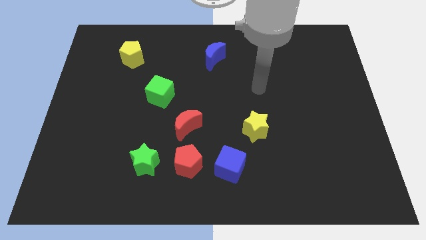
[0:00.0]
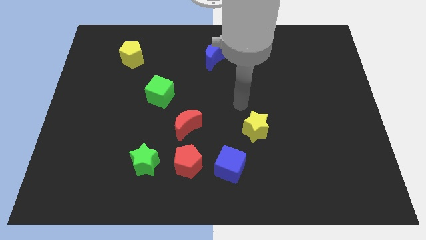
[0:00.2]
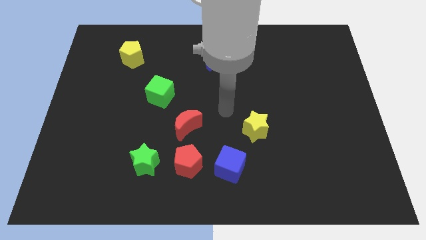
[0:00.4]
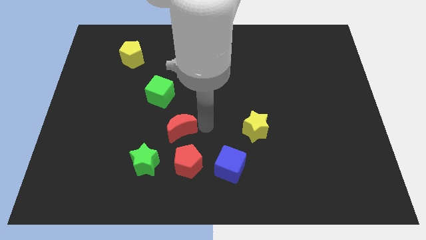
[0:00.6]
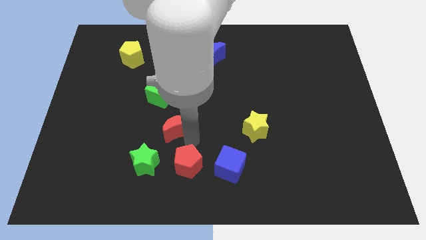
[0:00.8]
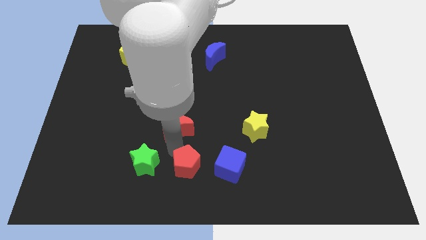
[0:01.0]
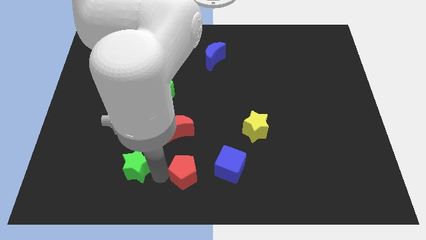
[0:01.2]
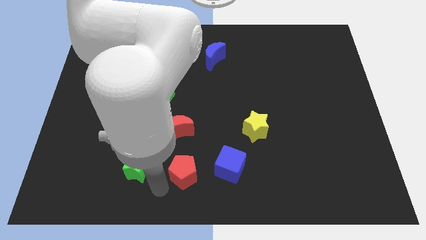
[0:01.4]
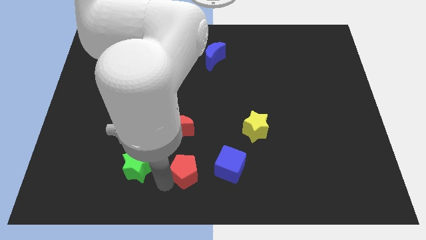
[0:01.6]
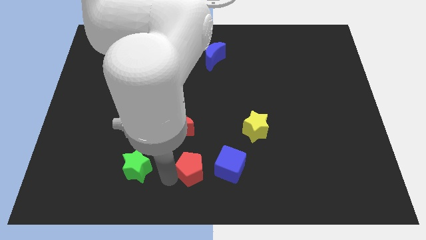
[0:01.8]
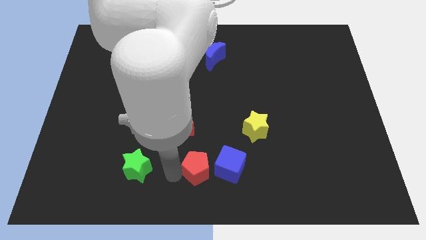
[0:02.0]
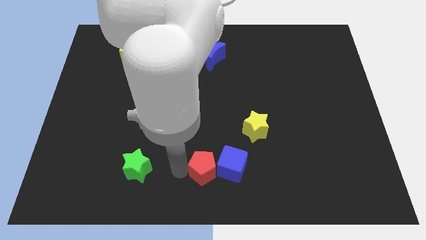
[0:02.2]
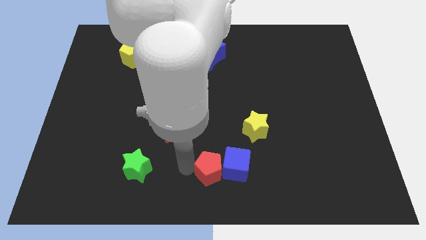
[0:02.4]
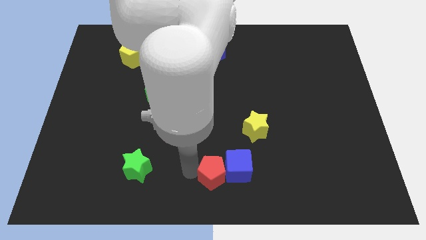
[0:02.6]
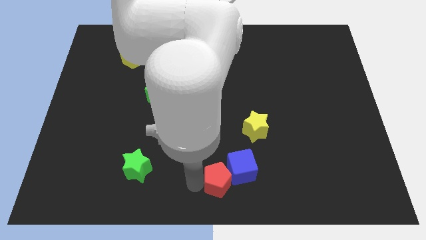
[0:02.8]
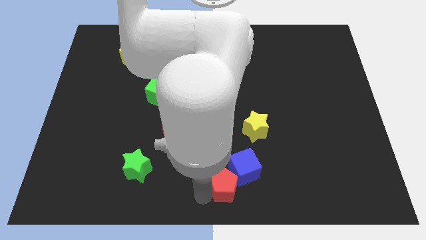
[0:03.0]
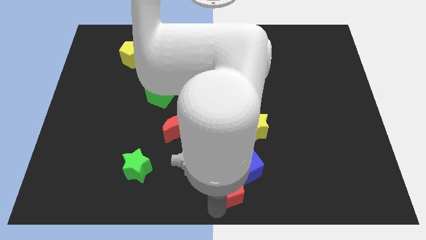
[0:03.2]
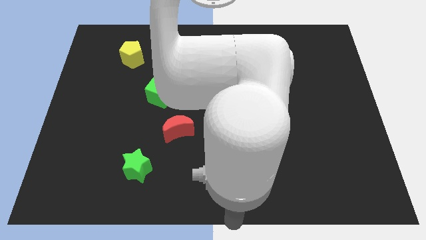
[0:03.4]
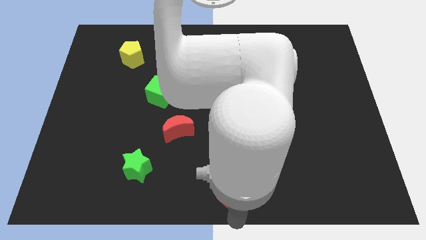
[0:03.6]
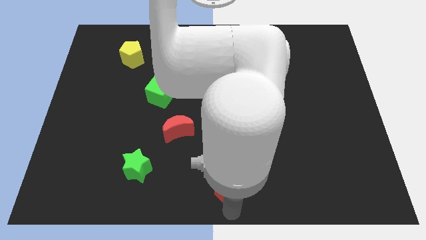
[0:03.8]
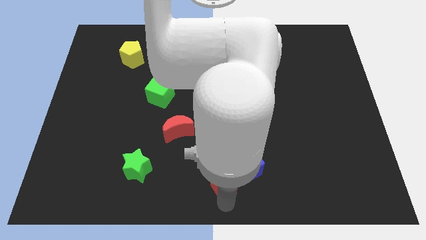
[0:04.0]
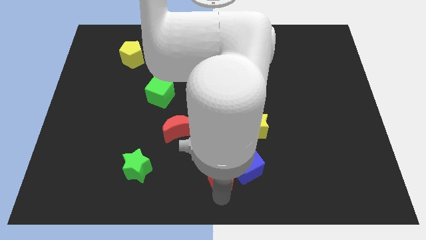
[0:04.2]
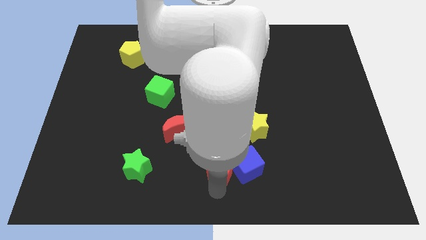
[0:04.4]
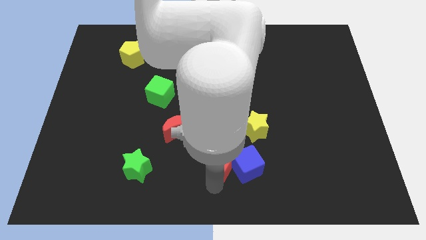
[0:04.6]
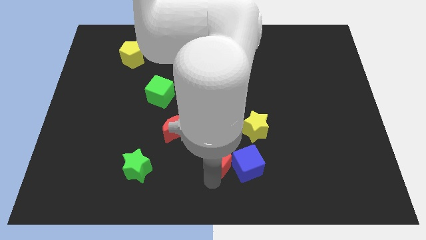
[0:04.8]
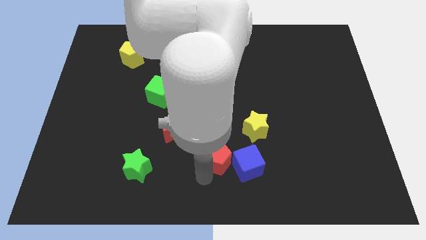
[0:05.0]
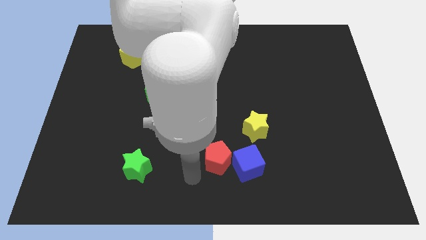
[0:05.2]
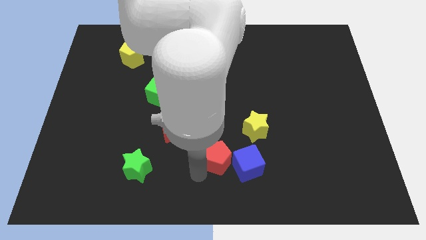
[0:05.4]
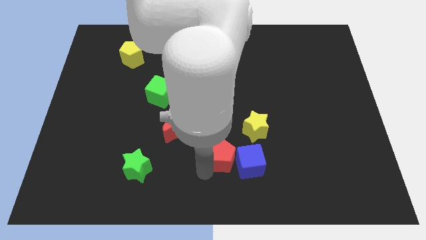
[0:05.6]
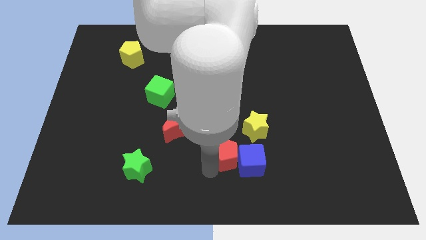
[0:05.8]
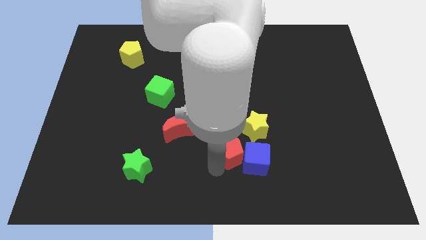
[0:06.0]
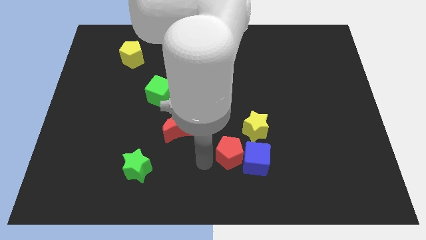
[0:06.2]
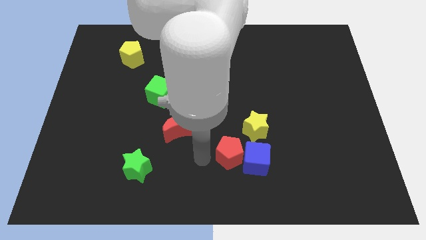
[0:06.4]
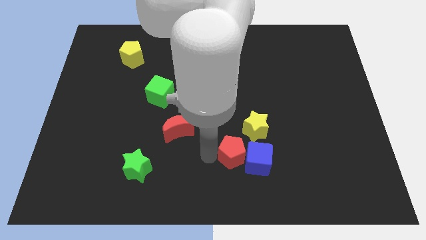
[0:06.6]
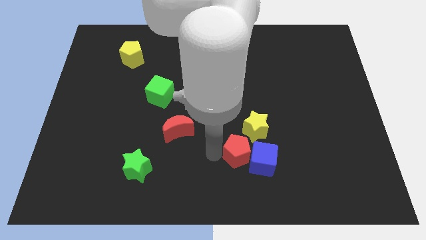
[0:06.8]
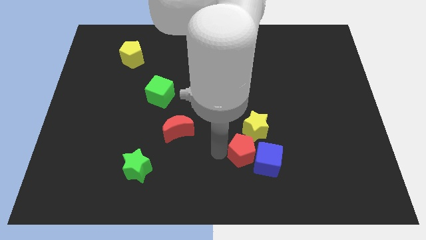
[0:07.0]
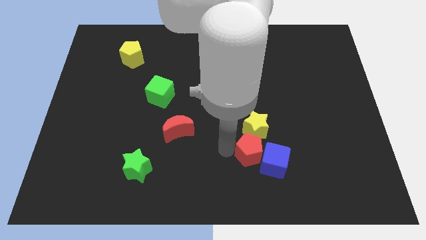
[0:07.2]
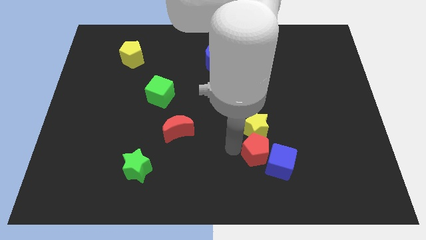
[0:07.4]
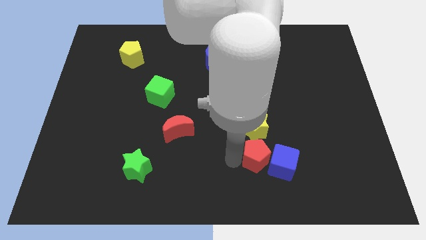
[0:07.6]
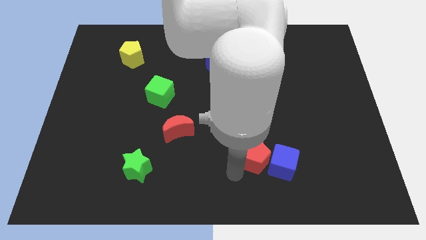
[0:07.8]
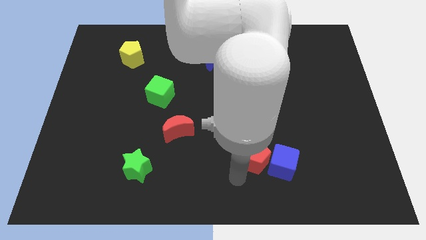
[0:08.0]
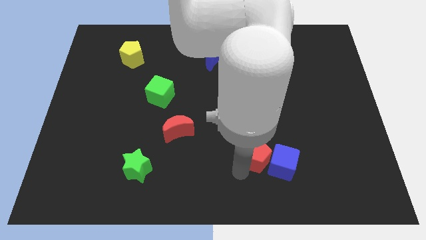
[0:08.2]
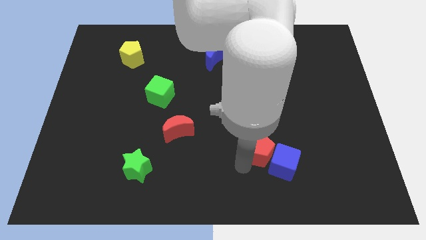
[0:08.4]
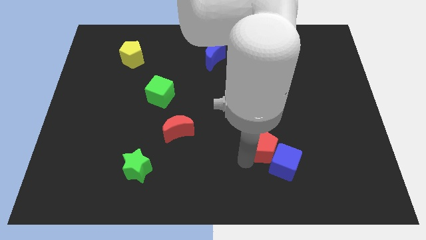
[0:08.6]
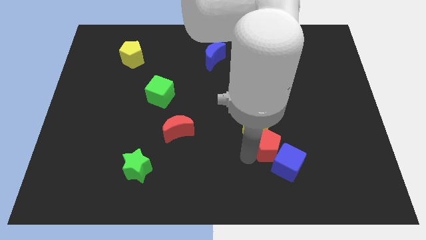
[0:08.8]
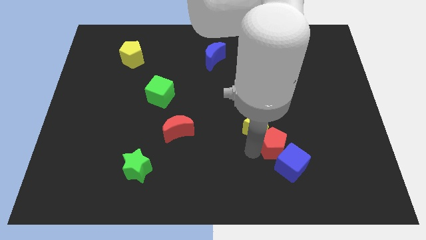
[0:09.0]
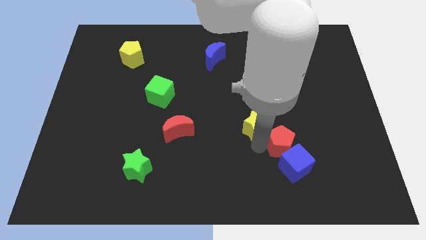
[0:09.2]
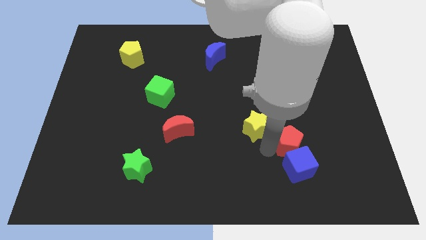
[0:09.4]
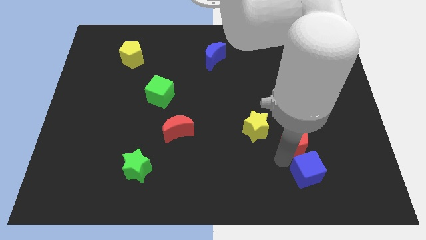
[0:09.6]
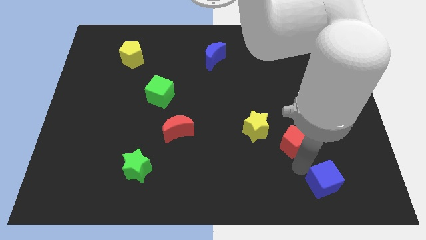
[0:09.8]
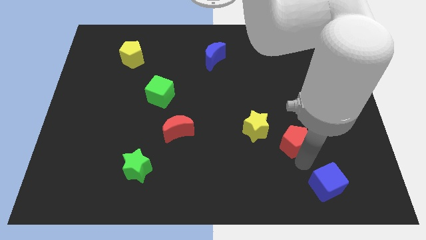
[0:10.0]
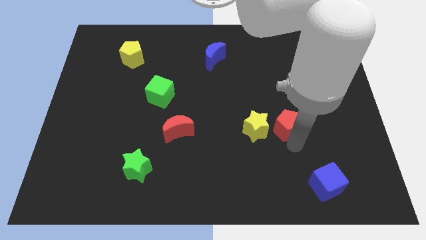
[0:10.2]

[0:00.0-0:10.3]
move the red pentagon to the top right side of the yellow star

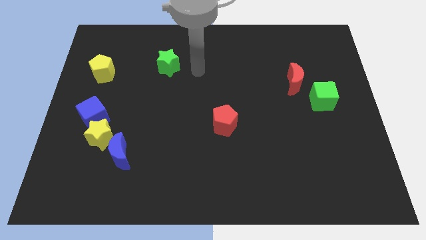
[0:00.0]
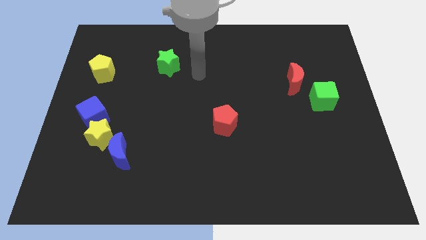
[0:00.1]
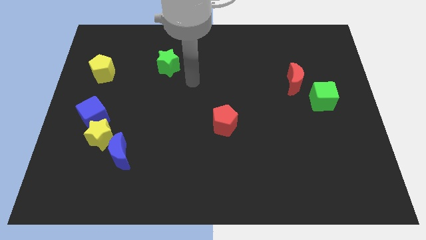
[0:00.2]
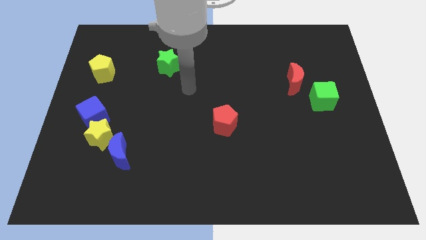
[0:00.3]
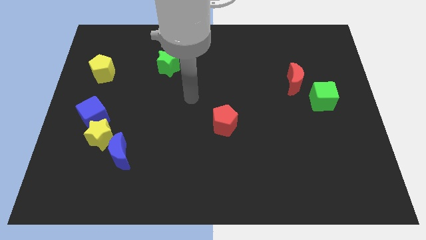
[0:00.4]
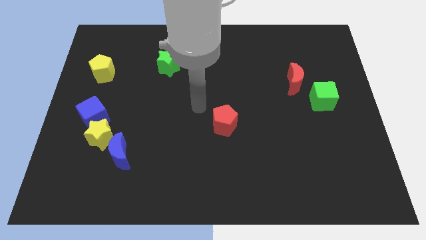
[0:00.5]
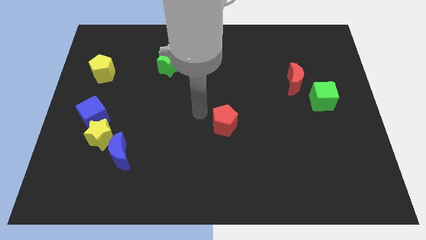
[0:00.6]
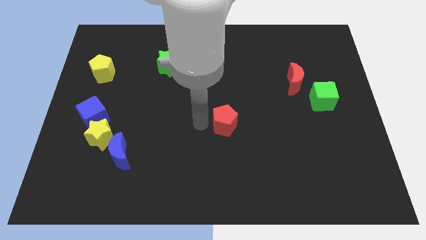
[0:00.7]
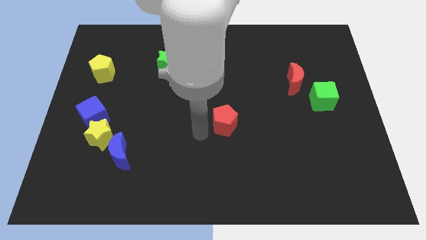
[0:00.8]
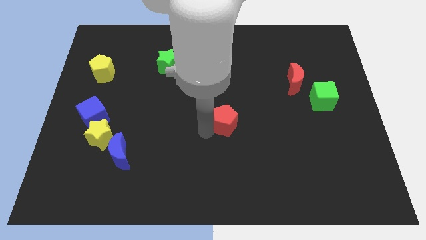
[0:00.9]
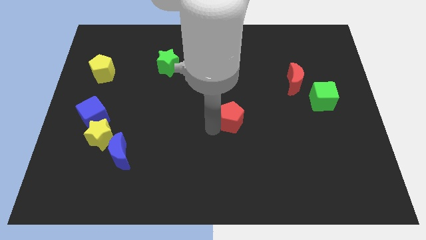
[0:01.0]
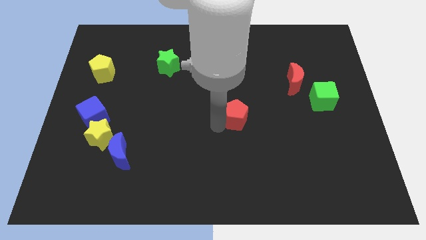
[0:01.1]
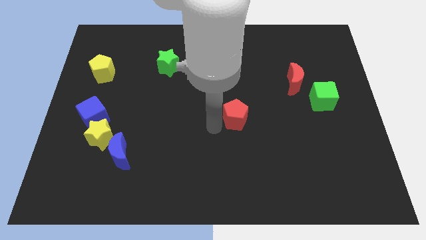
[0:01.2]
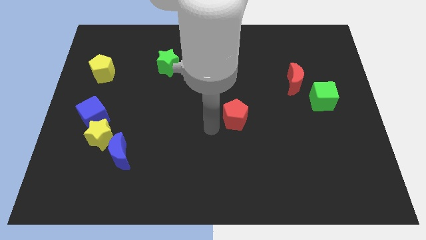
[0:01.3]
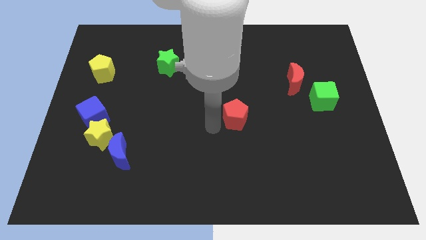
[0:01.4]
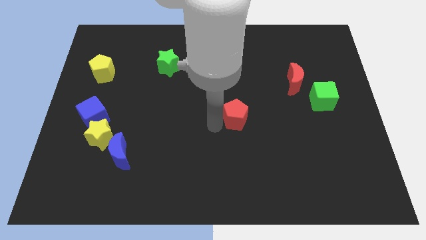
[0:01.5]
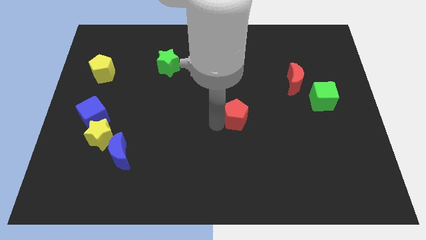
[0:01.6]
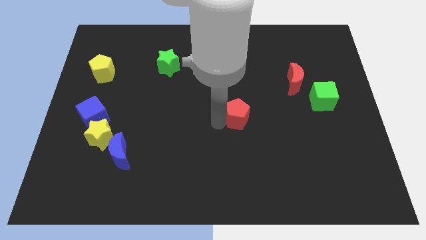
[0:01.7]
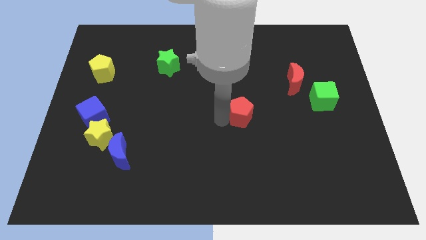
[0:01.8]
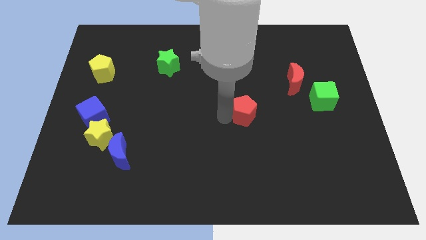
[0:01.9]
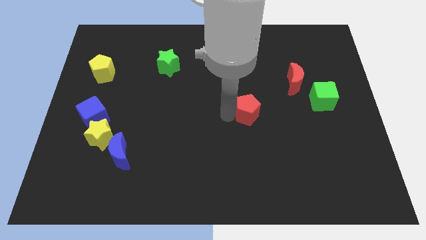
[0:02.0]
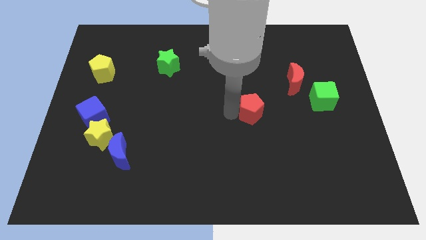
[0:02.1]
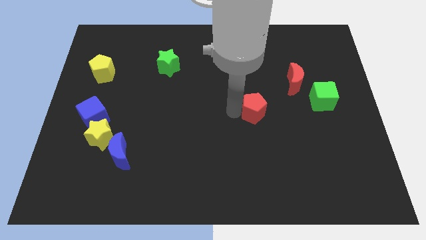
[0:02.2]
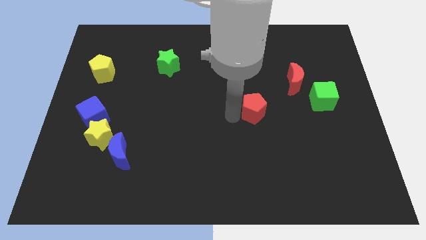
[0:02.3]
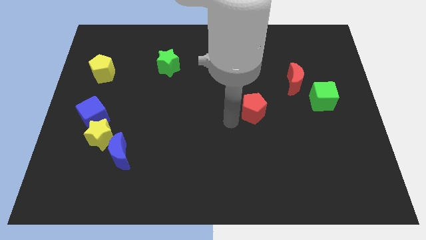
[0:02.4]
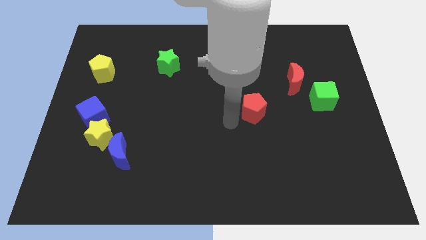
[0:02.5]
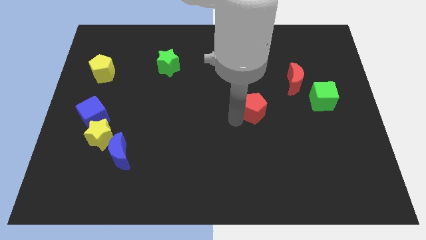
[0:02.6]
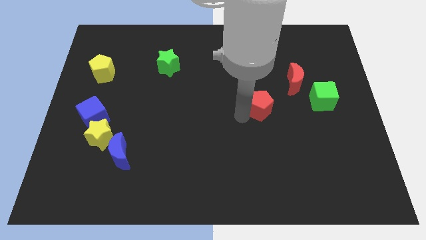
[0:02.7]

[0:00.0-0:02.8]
slide the red pentagon to the bottom left of the red moon
